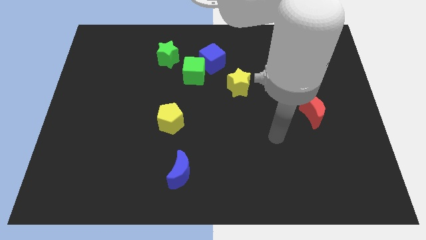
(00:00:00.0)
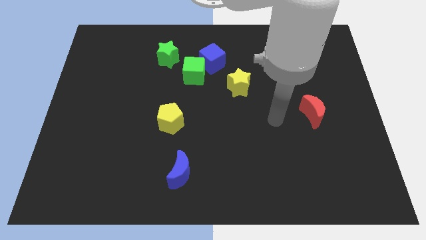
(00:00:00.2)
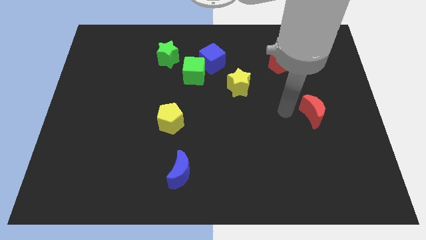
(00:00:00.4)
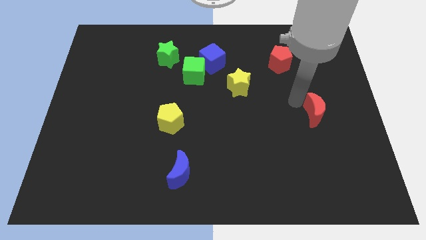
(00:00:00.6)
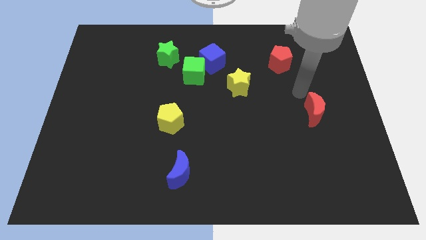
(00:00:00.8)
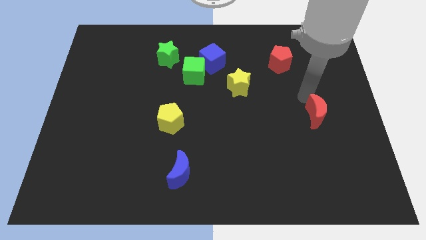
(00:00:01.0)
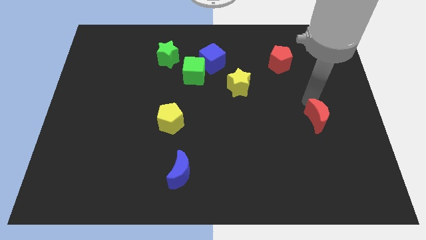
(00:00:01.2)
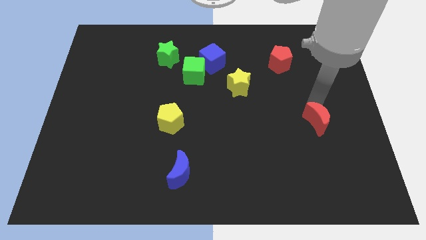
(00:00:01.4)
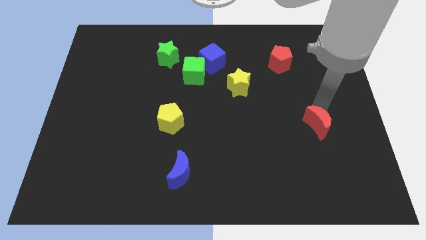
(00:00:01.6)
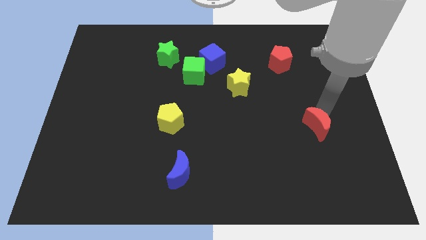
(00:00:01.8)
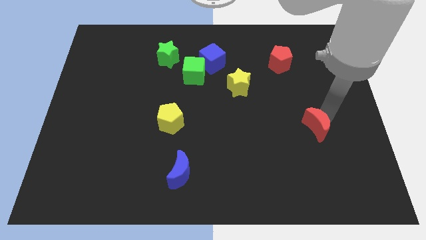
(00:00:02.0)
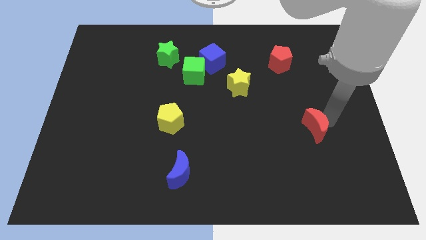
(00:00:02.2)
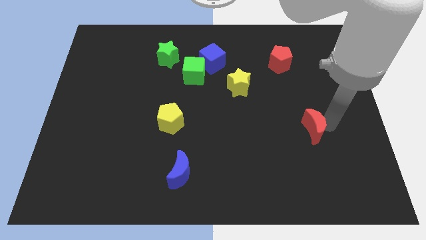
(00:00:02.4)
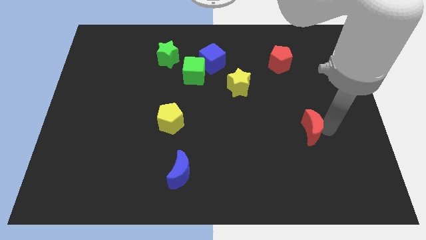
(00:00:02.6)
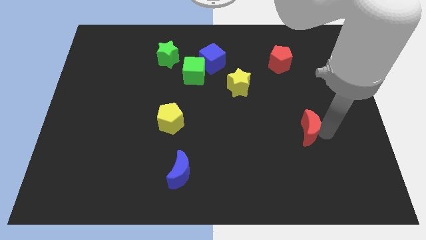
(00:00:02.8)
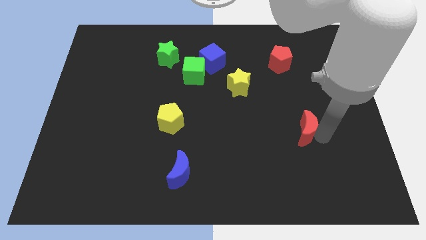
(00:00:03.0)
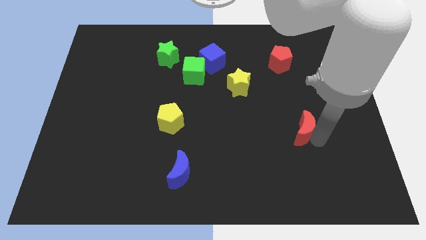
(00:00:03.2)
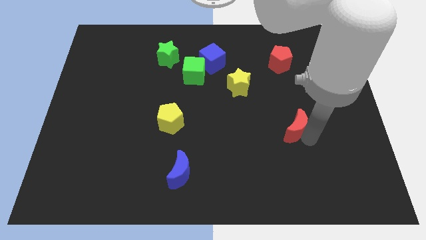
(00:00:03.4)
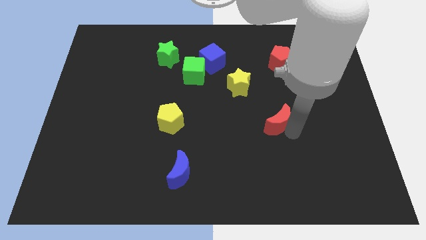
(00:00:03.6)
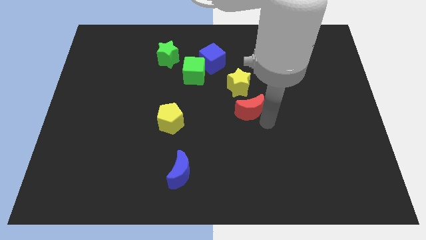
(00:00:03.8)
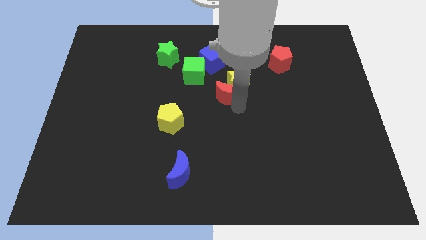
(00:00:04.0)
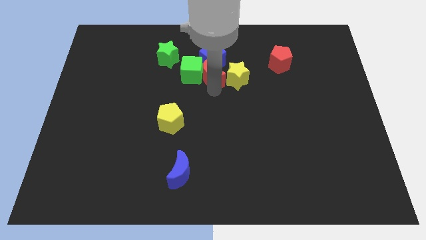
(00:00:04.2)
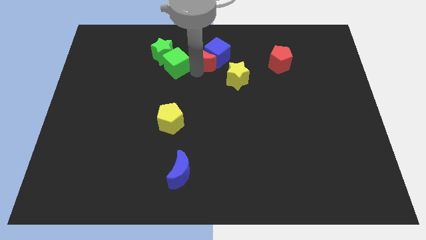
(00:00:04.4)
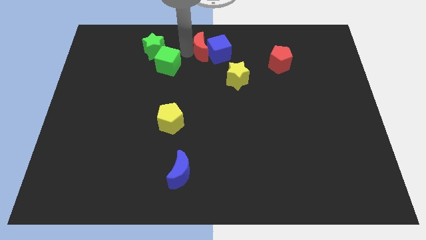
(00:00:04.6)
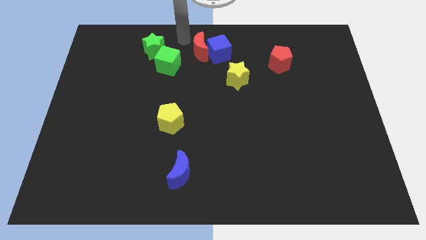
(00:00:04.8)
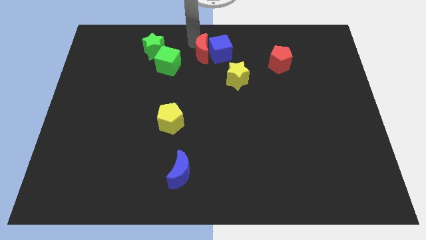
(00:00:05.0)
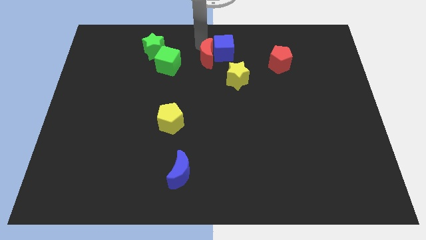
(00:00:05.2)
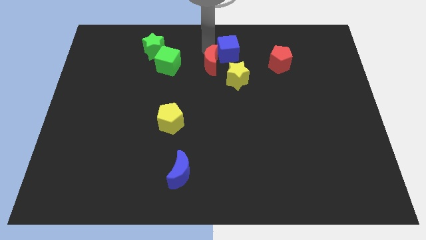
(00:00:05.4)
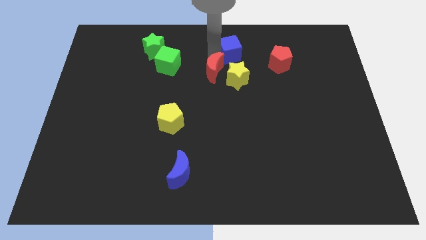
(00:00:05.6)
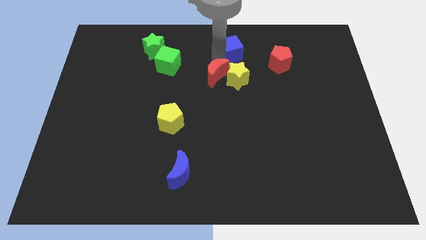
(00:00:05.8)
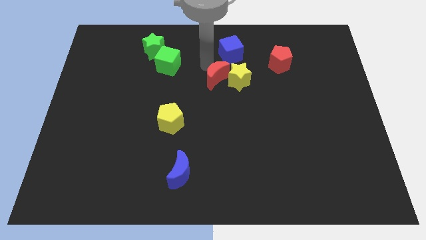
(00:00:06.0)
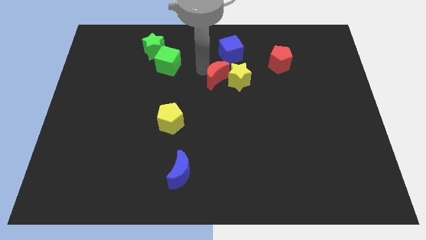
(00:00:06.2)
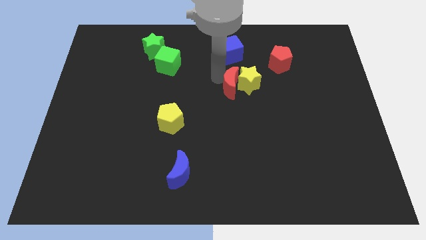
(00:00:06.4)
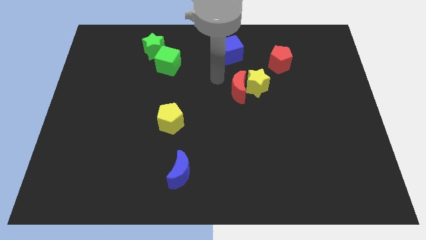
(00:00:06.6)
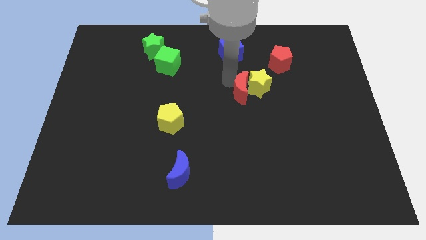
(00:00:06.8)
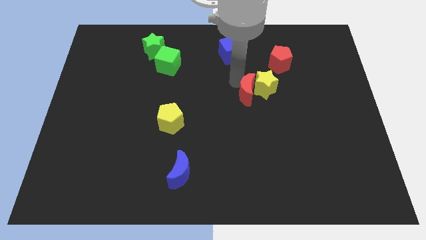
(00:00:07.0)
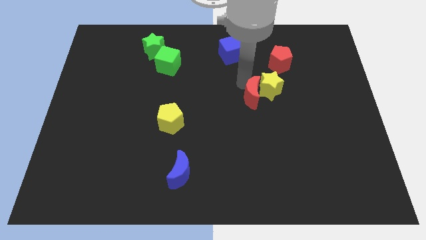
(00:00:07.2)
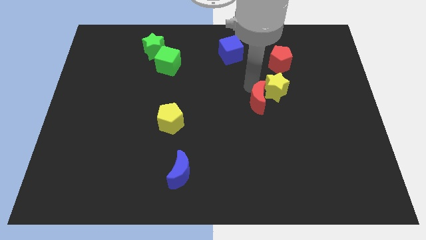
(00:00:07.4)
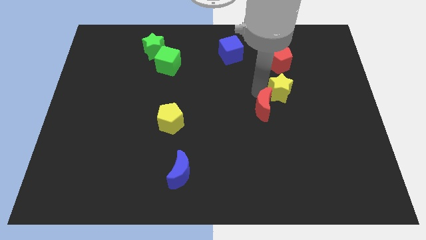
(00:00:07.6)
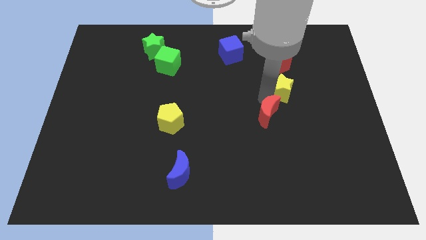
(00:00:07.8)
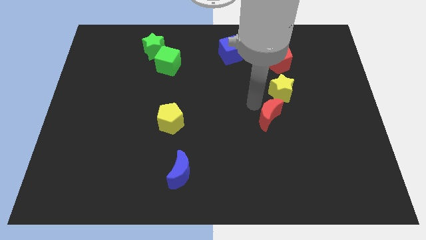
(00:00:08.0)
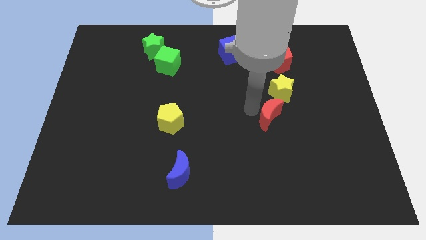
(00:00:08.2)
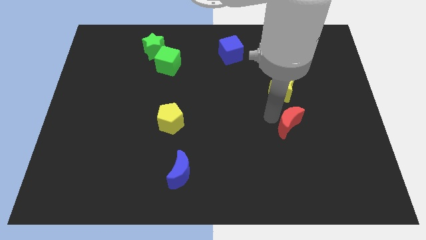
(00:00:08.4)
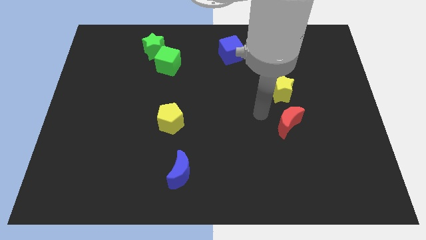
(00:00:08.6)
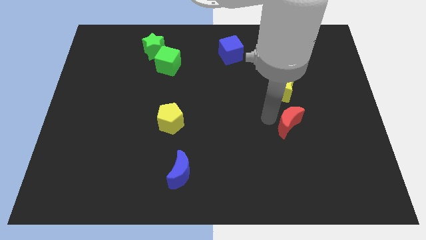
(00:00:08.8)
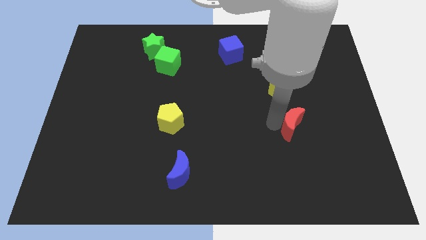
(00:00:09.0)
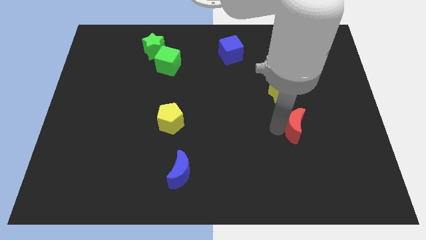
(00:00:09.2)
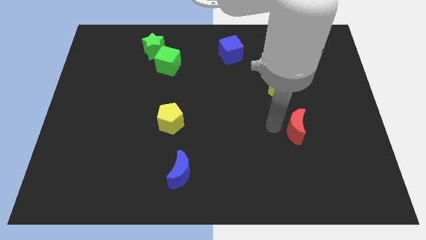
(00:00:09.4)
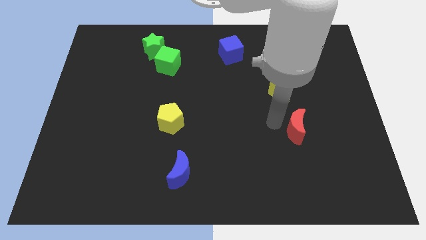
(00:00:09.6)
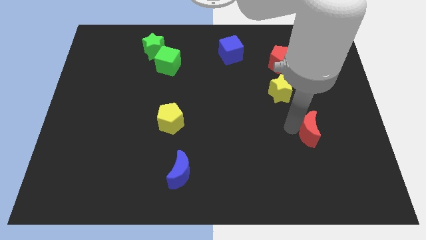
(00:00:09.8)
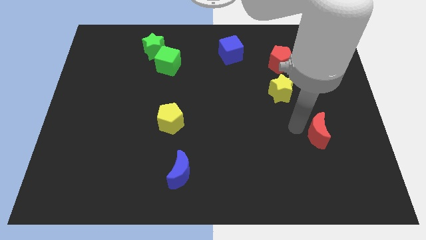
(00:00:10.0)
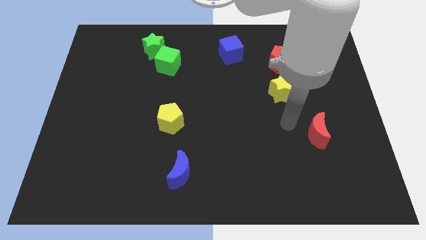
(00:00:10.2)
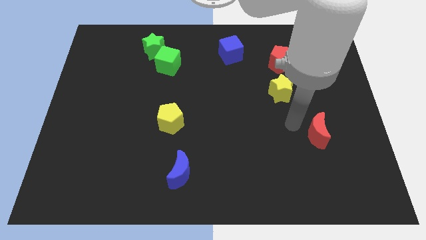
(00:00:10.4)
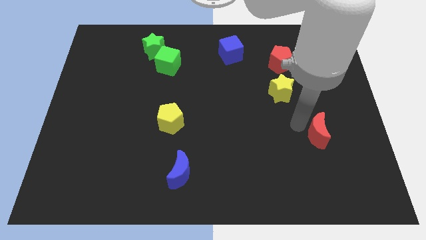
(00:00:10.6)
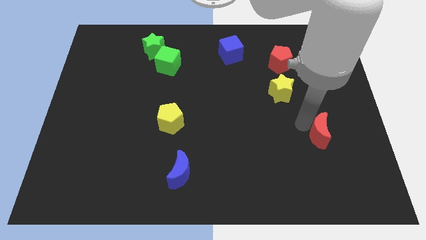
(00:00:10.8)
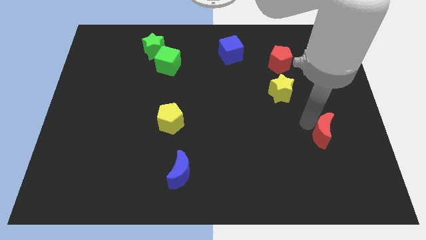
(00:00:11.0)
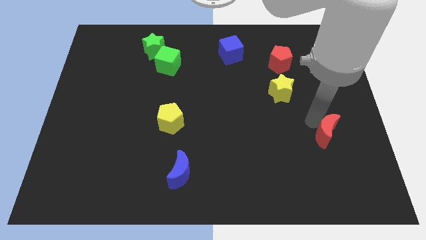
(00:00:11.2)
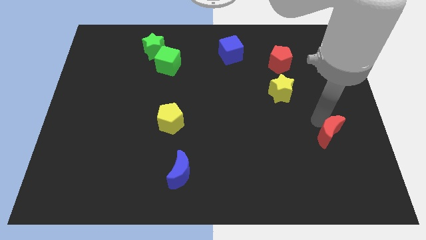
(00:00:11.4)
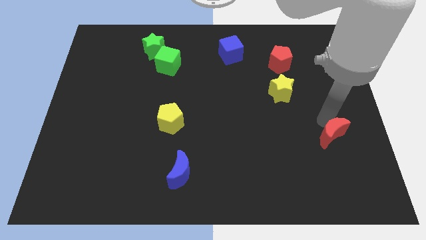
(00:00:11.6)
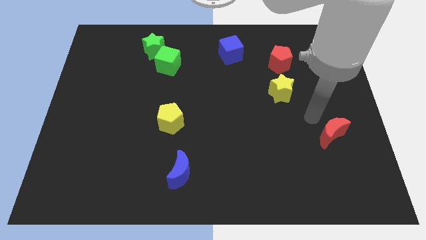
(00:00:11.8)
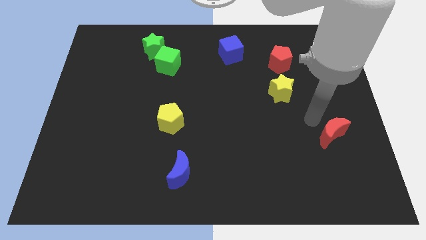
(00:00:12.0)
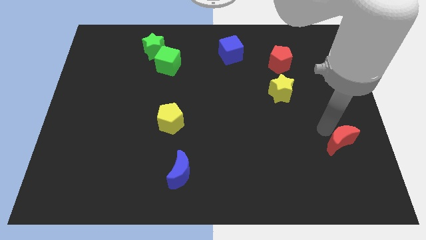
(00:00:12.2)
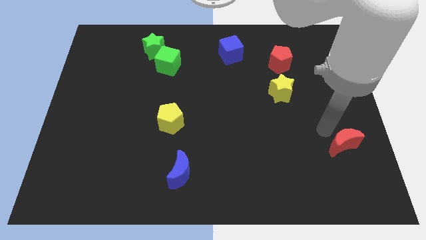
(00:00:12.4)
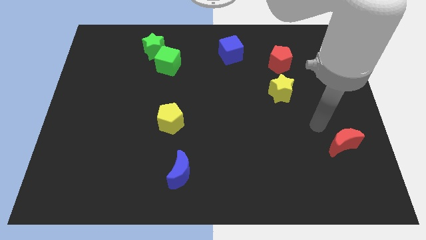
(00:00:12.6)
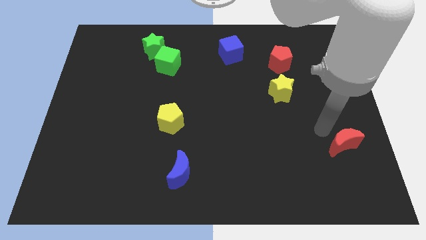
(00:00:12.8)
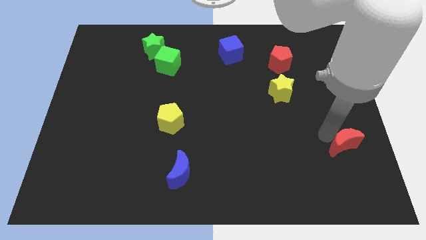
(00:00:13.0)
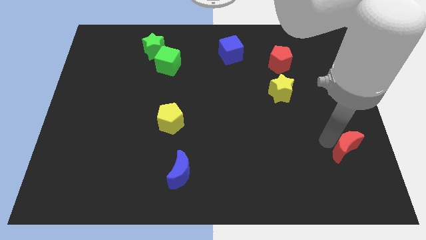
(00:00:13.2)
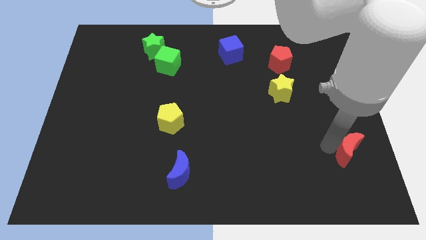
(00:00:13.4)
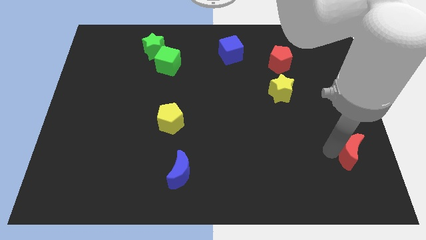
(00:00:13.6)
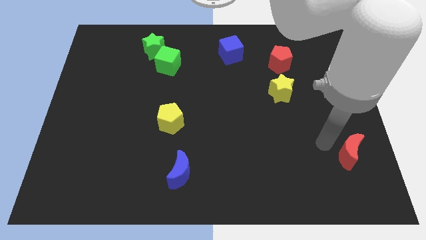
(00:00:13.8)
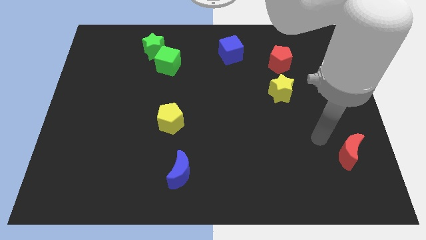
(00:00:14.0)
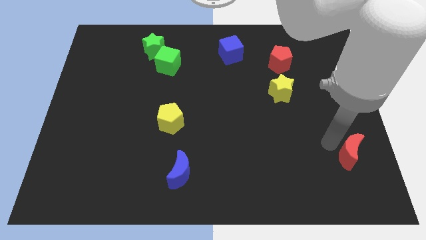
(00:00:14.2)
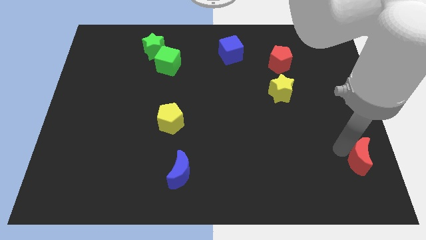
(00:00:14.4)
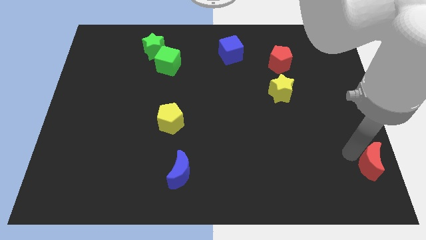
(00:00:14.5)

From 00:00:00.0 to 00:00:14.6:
push the red moon to the lower right corner
